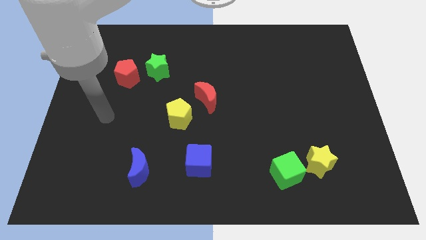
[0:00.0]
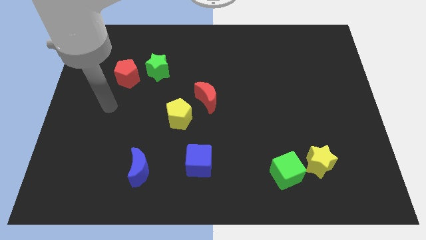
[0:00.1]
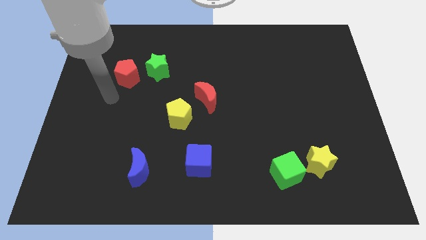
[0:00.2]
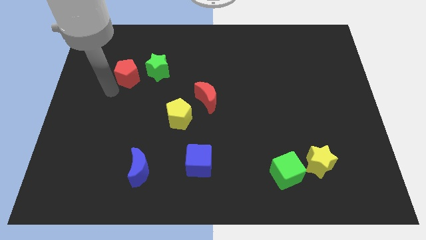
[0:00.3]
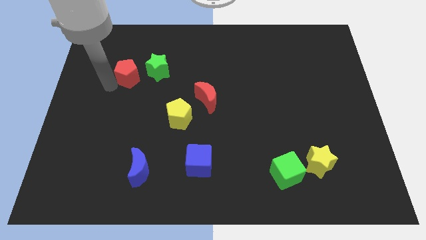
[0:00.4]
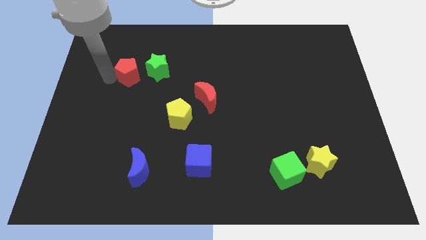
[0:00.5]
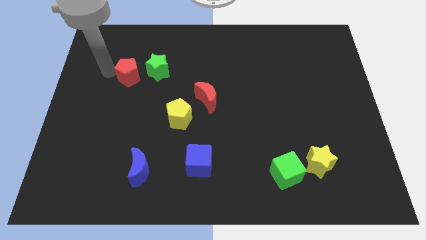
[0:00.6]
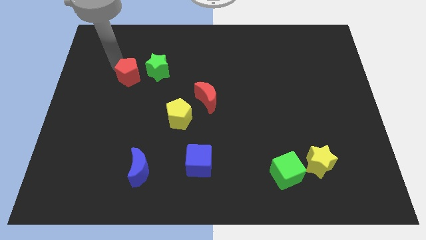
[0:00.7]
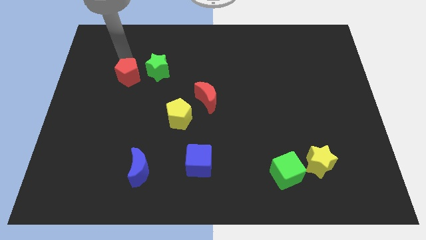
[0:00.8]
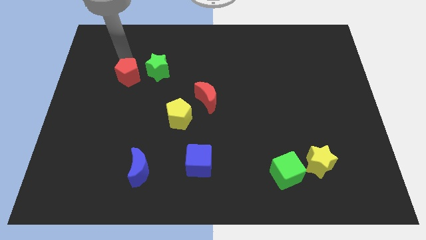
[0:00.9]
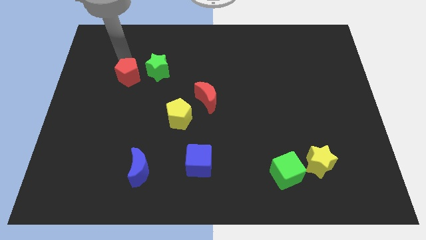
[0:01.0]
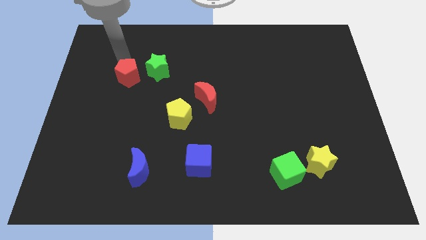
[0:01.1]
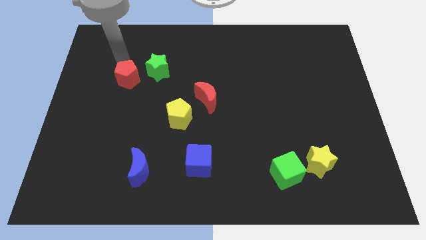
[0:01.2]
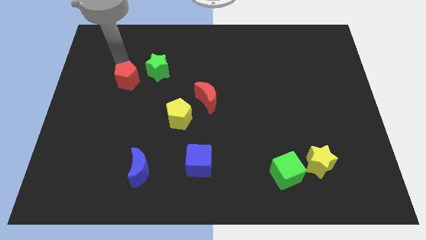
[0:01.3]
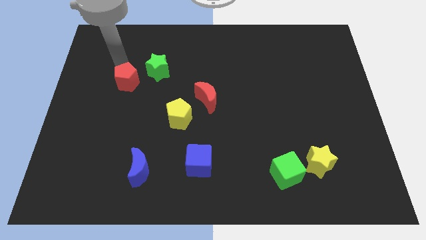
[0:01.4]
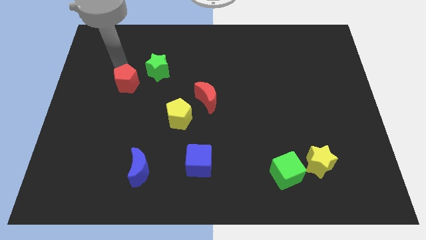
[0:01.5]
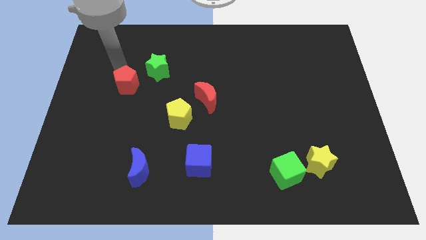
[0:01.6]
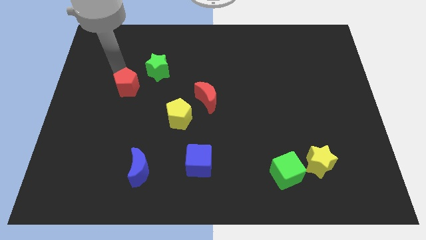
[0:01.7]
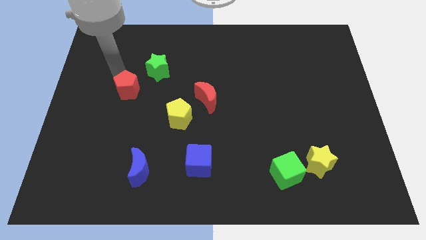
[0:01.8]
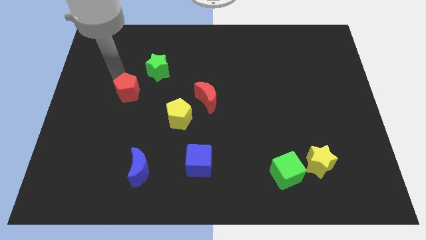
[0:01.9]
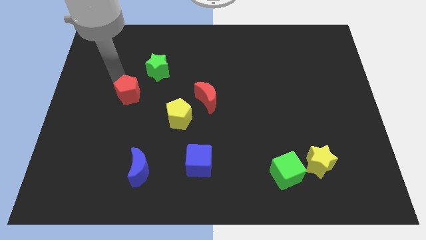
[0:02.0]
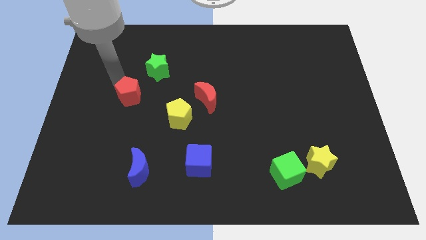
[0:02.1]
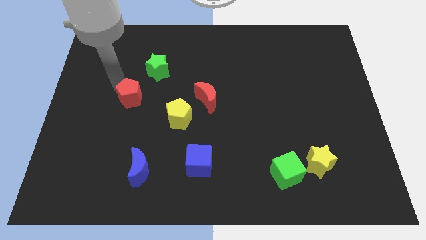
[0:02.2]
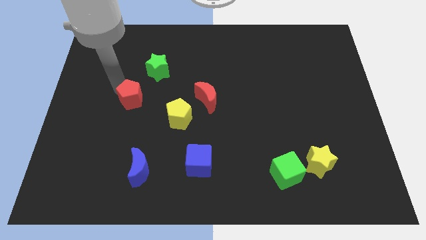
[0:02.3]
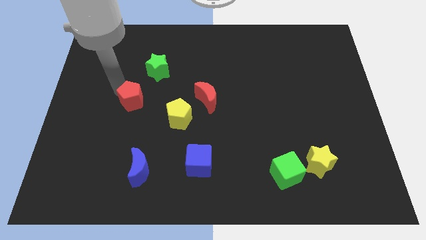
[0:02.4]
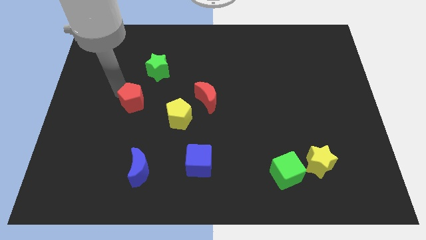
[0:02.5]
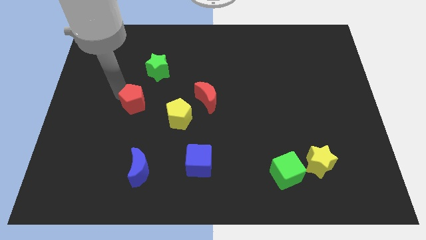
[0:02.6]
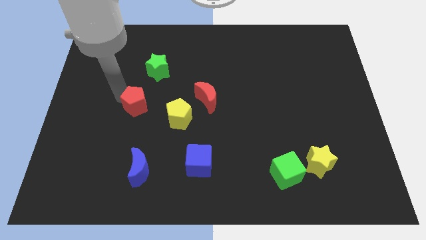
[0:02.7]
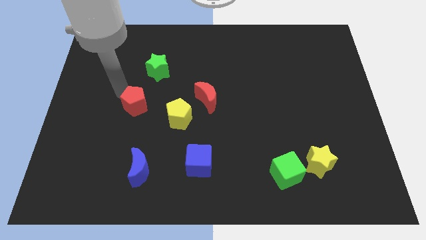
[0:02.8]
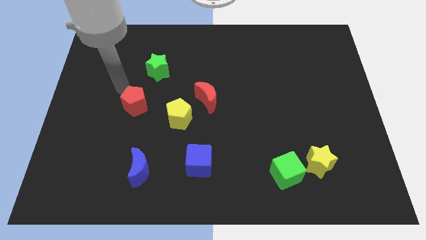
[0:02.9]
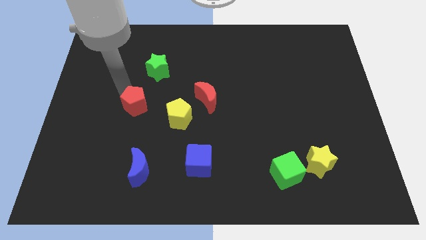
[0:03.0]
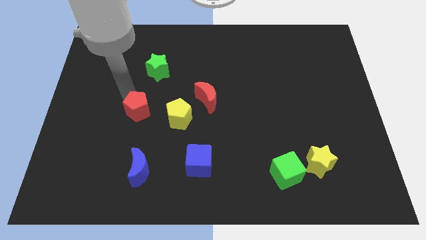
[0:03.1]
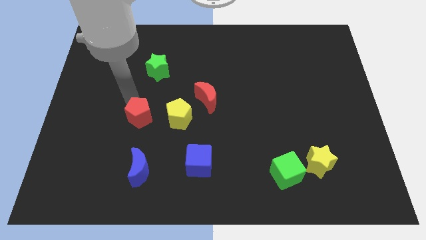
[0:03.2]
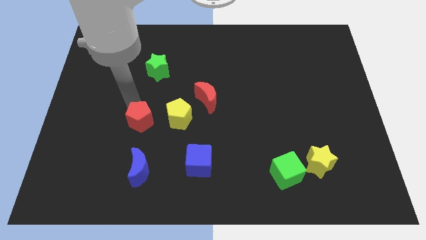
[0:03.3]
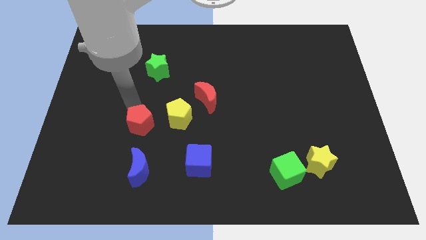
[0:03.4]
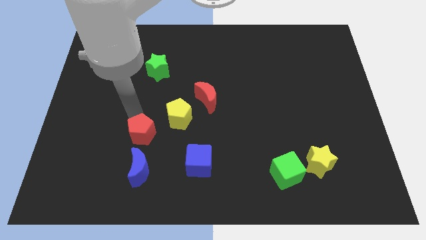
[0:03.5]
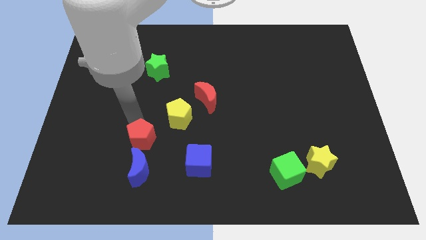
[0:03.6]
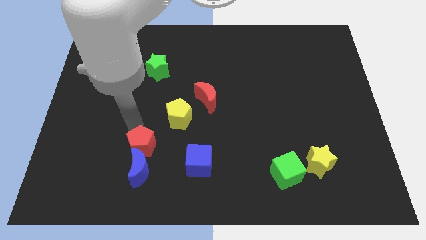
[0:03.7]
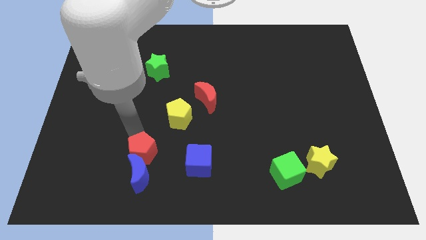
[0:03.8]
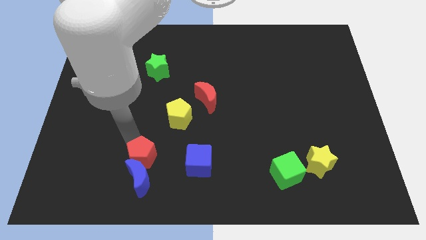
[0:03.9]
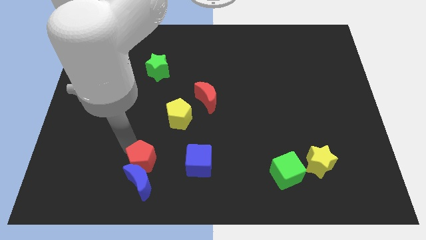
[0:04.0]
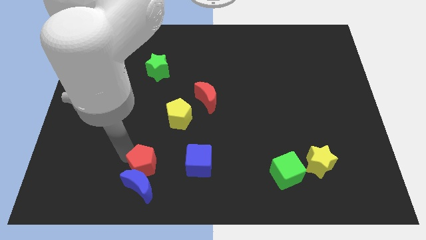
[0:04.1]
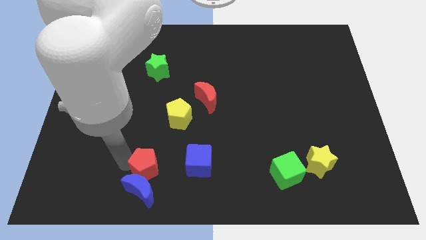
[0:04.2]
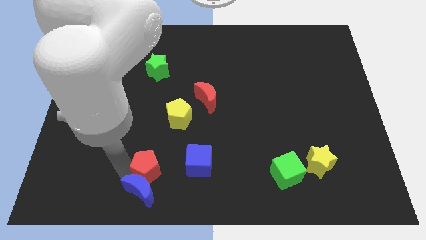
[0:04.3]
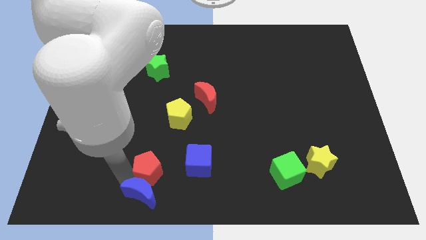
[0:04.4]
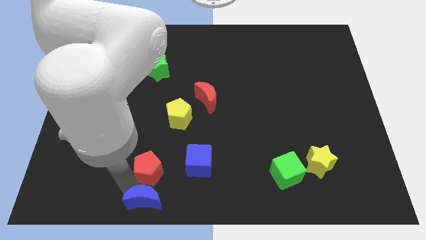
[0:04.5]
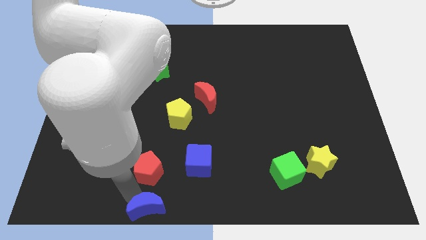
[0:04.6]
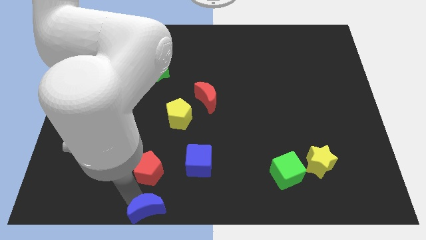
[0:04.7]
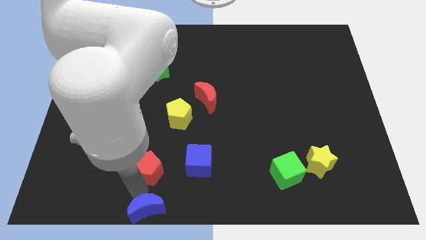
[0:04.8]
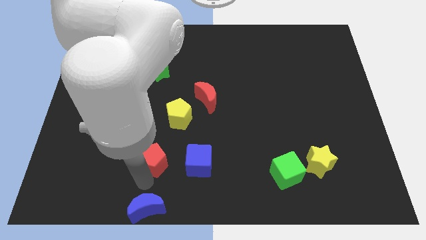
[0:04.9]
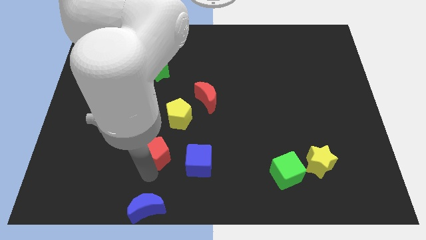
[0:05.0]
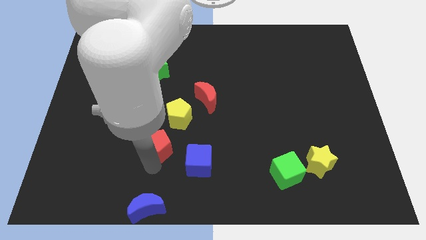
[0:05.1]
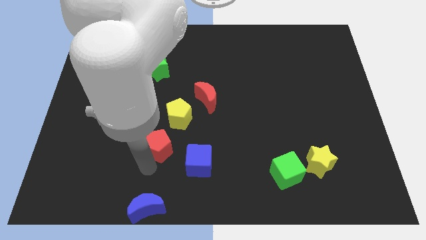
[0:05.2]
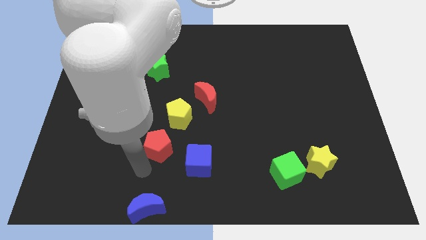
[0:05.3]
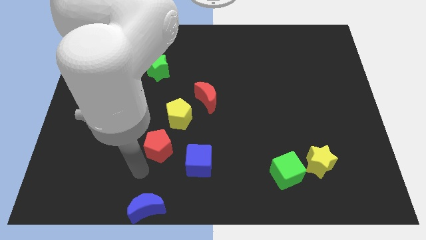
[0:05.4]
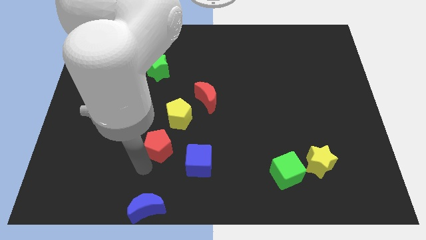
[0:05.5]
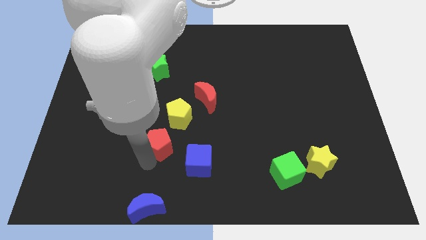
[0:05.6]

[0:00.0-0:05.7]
slide the red pentagon down and right diagonally

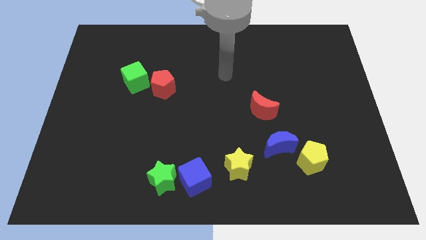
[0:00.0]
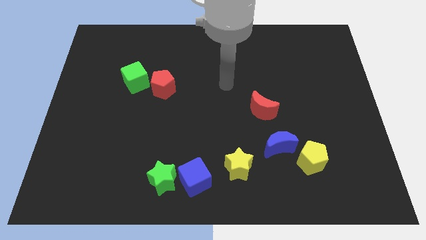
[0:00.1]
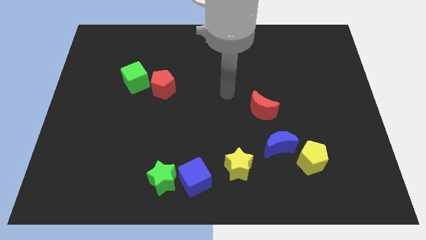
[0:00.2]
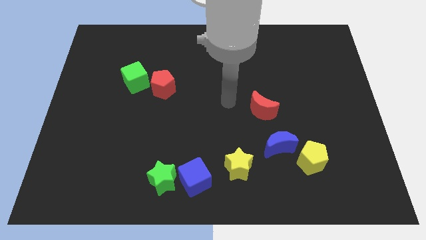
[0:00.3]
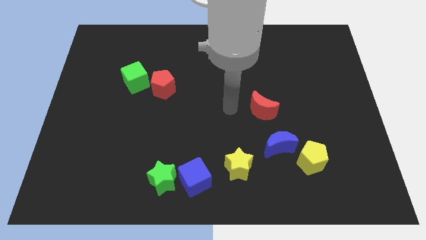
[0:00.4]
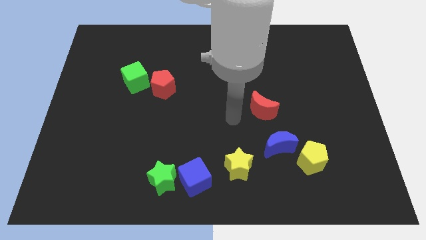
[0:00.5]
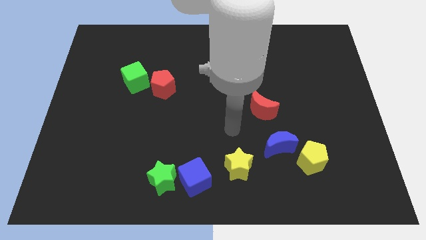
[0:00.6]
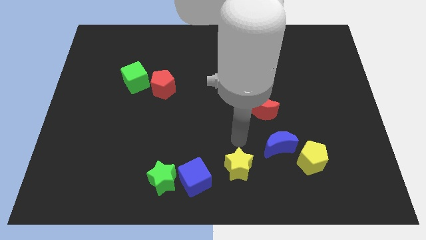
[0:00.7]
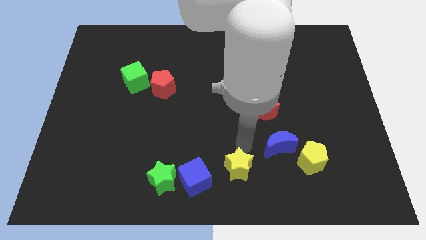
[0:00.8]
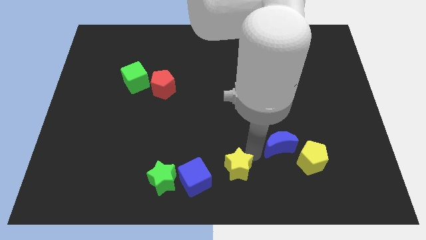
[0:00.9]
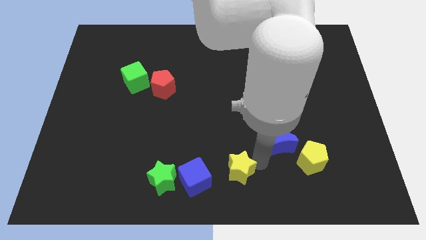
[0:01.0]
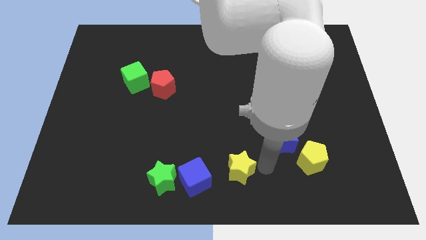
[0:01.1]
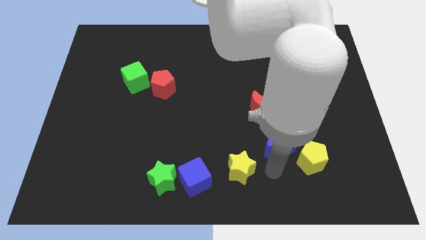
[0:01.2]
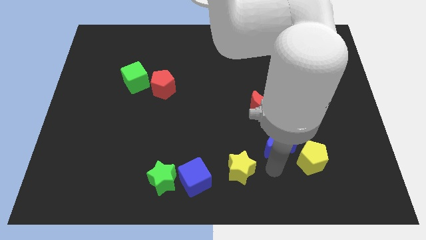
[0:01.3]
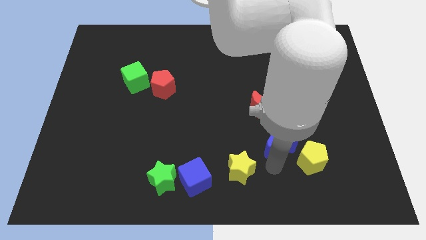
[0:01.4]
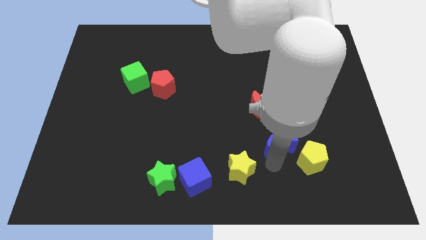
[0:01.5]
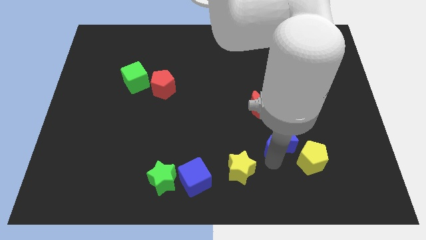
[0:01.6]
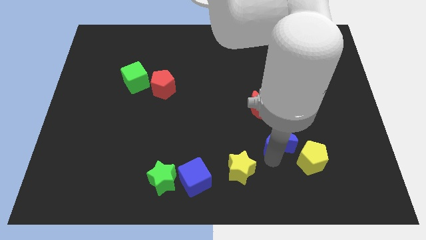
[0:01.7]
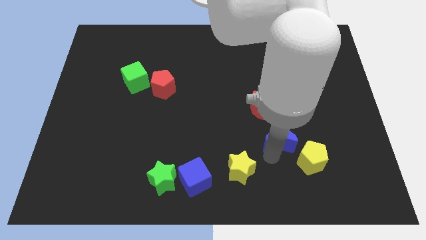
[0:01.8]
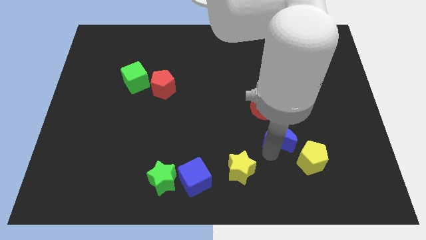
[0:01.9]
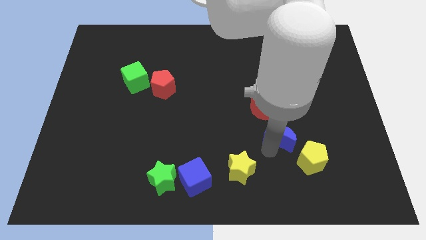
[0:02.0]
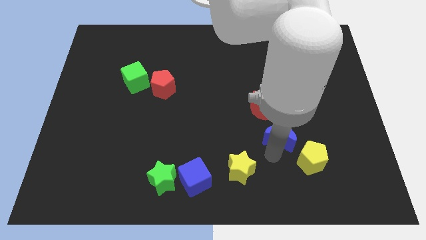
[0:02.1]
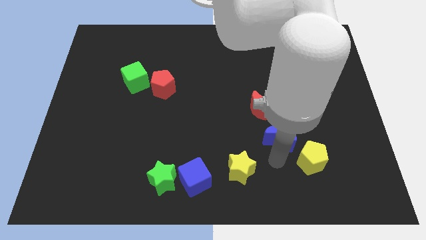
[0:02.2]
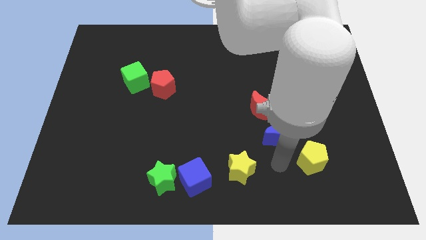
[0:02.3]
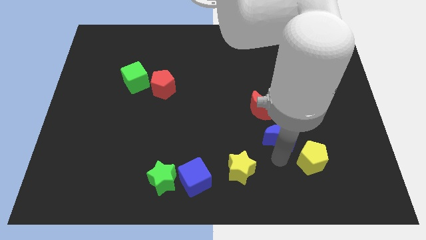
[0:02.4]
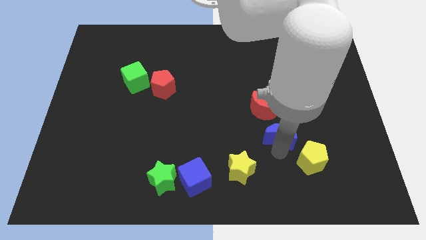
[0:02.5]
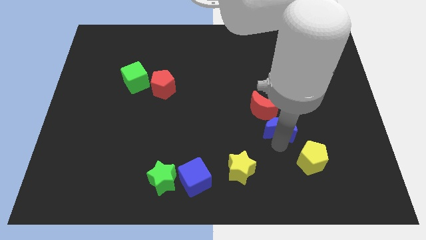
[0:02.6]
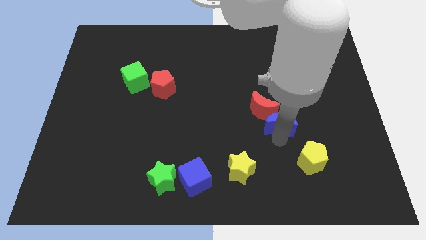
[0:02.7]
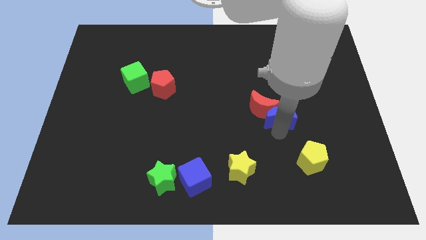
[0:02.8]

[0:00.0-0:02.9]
move the blue moon upwards slightly
